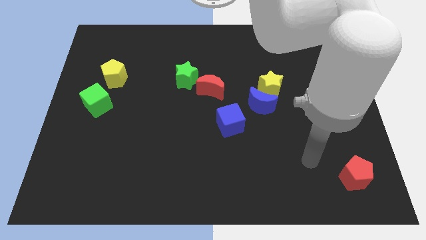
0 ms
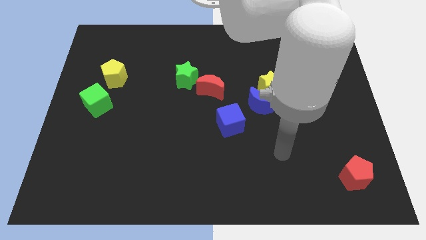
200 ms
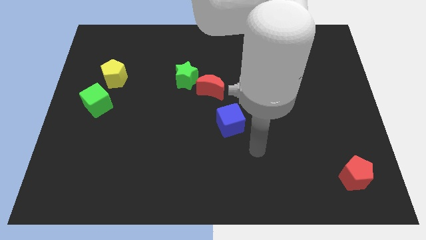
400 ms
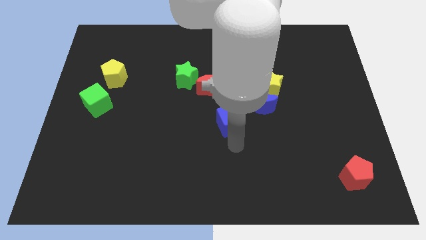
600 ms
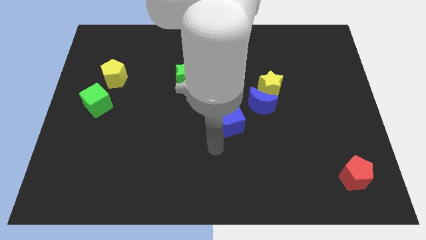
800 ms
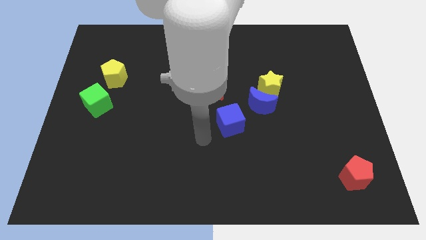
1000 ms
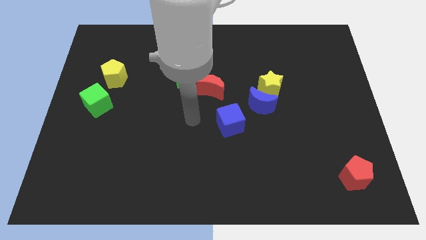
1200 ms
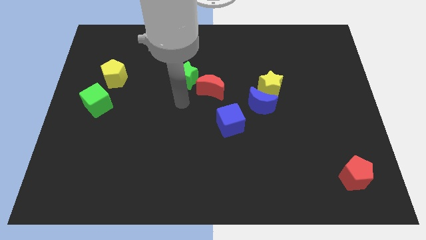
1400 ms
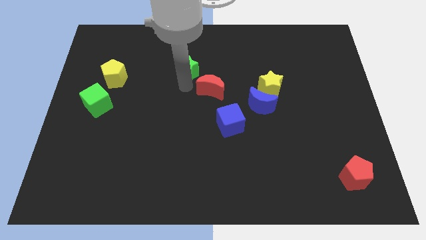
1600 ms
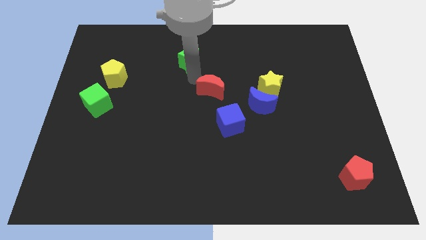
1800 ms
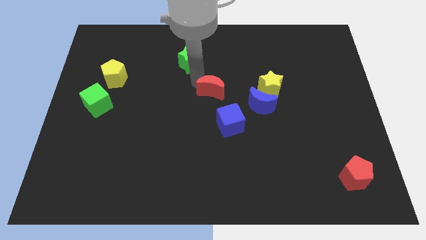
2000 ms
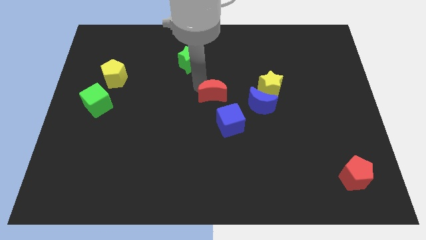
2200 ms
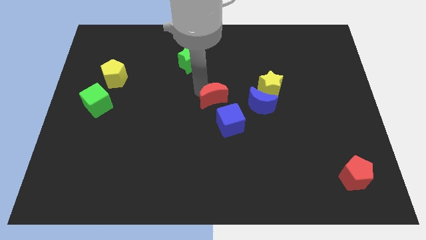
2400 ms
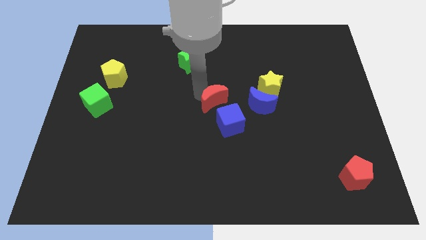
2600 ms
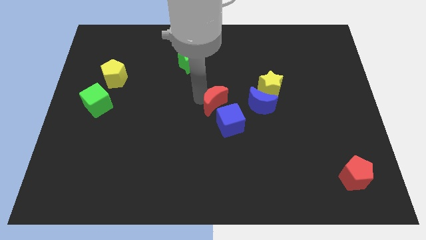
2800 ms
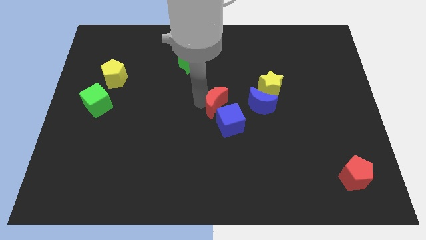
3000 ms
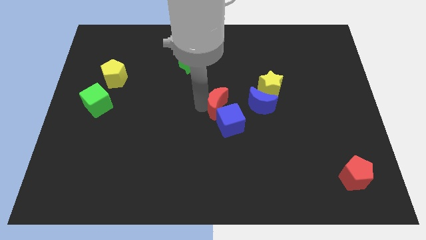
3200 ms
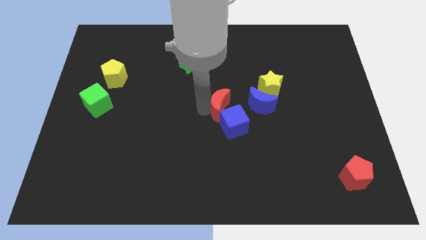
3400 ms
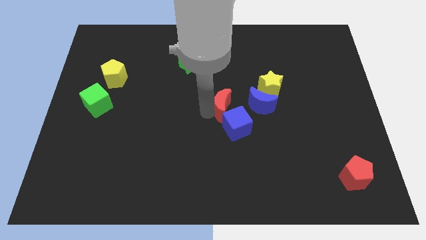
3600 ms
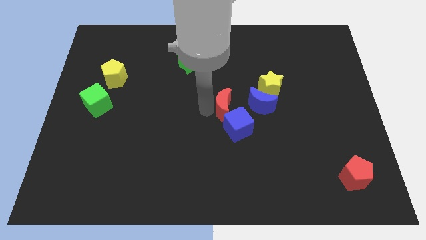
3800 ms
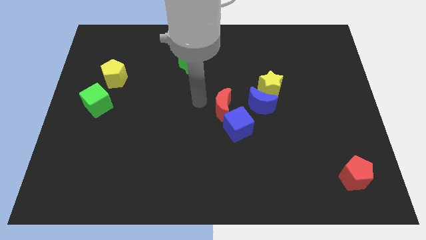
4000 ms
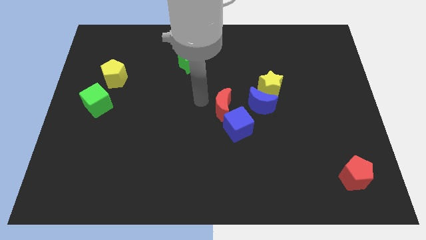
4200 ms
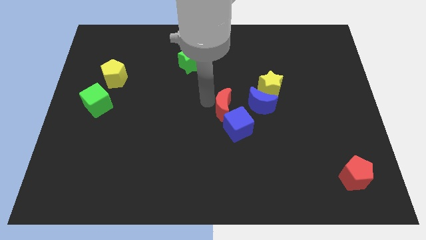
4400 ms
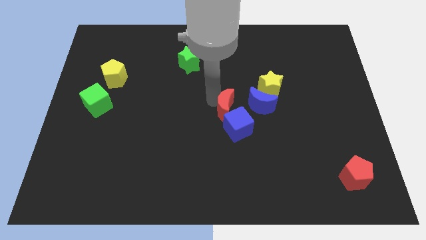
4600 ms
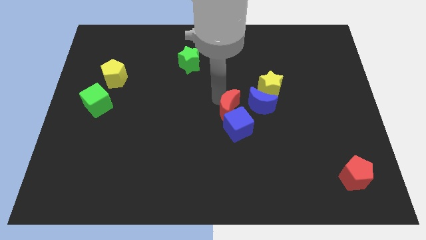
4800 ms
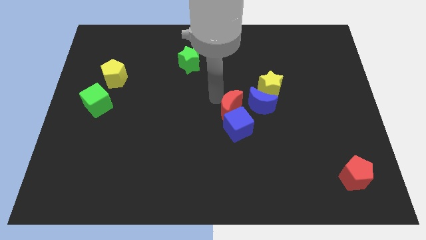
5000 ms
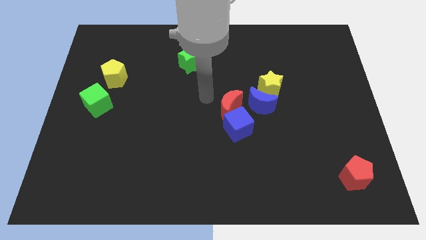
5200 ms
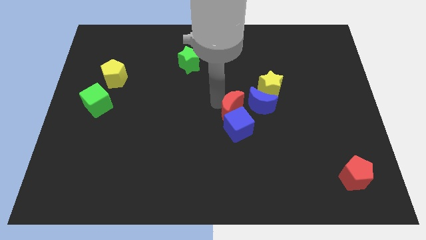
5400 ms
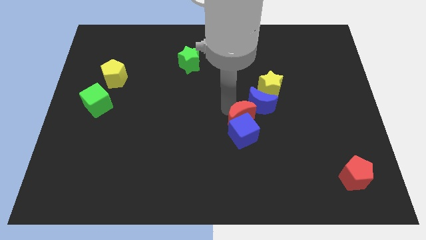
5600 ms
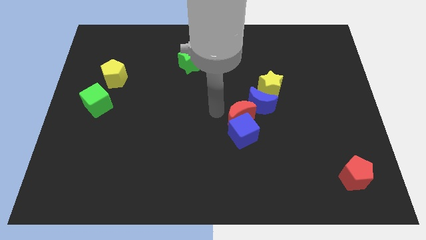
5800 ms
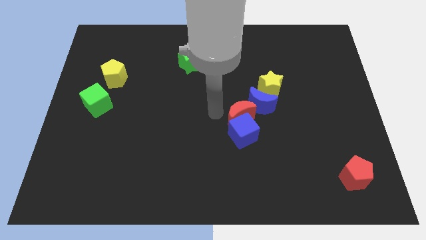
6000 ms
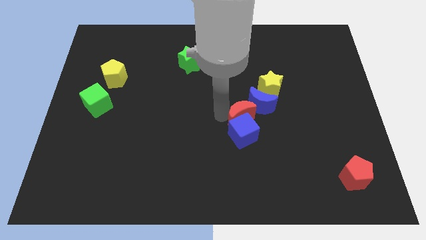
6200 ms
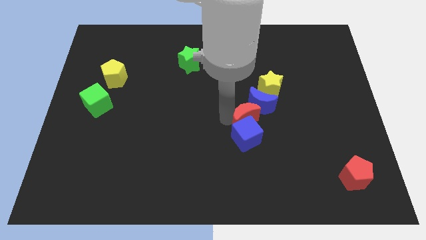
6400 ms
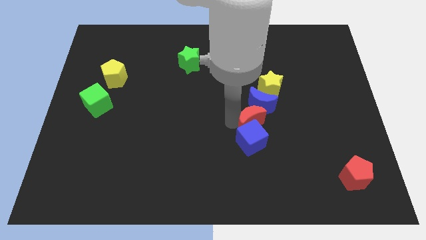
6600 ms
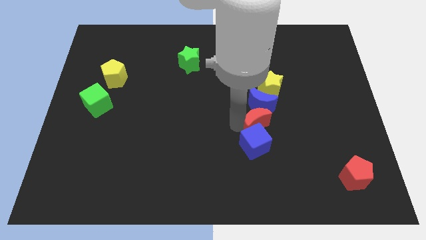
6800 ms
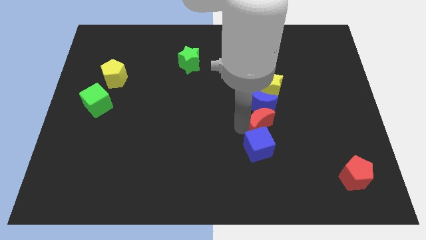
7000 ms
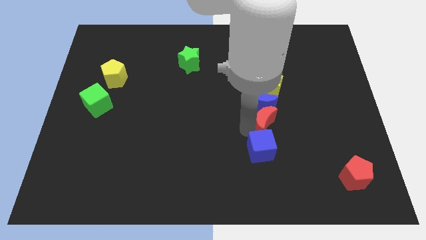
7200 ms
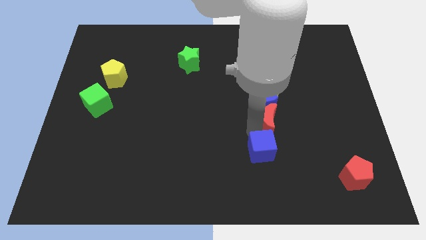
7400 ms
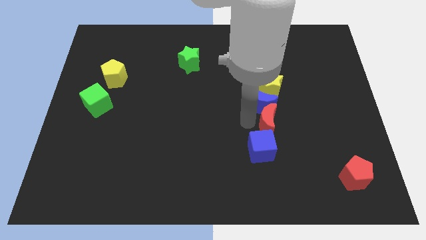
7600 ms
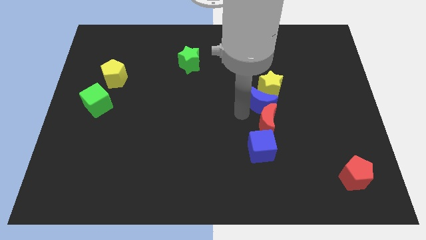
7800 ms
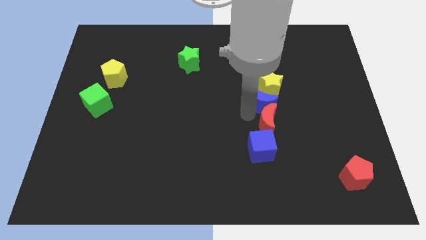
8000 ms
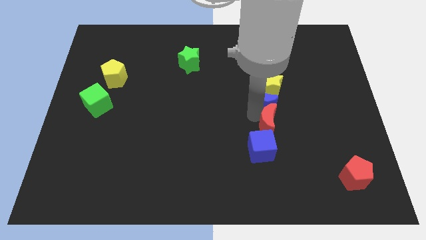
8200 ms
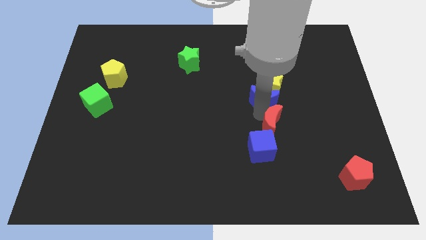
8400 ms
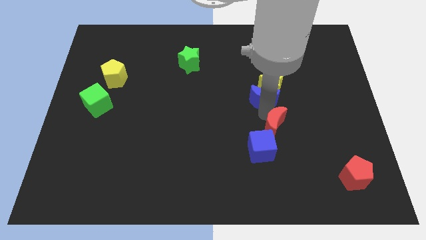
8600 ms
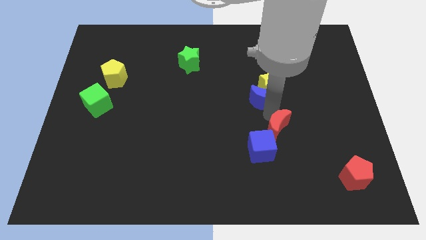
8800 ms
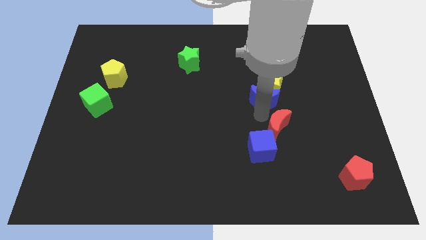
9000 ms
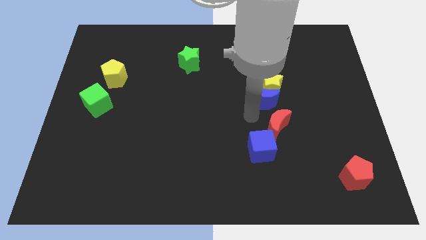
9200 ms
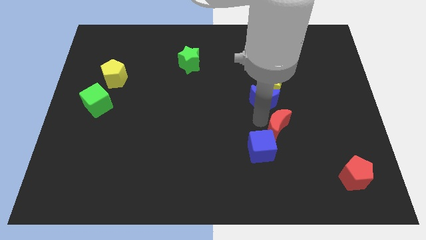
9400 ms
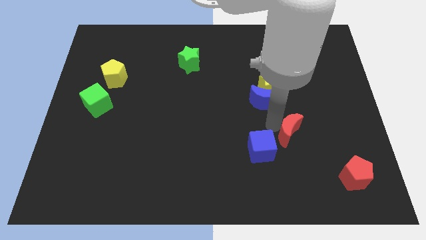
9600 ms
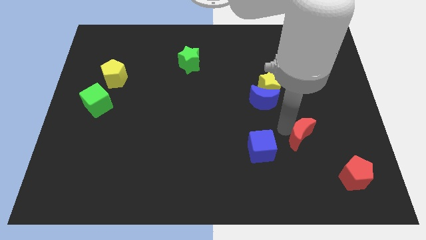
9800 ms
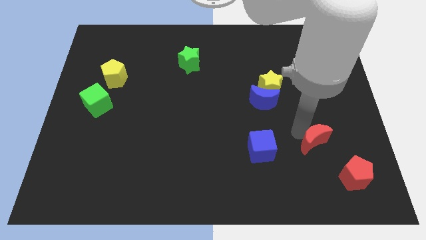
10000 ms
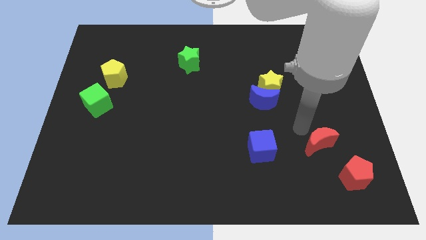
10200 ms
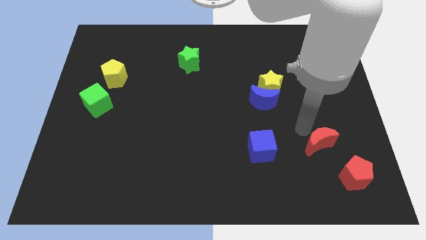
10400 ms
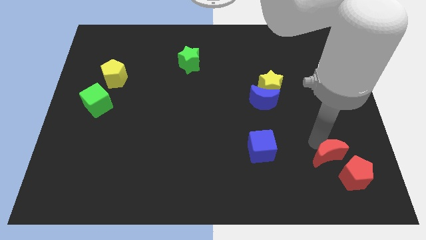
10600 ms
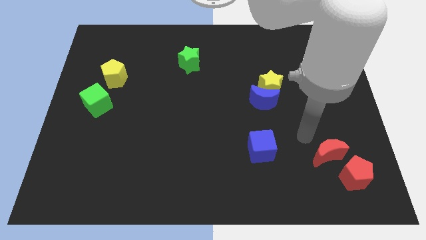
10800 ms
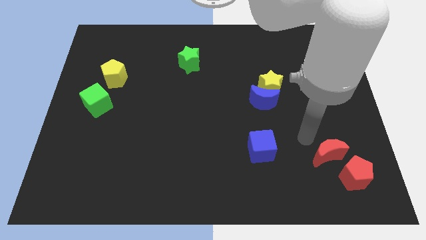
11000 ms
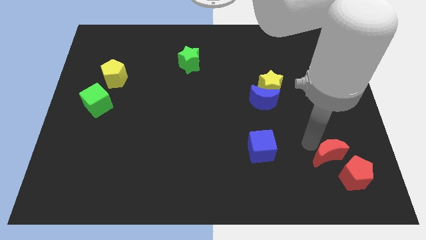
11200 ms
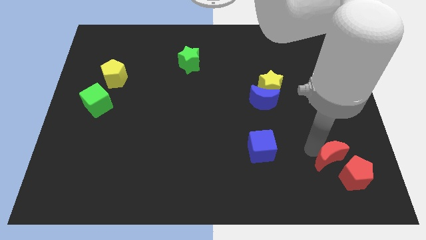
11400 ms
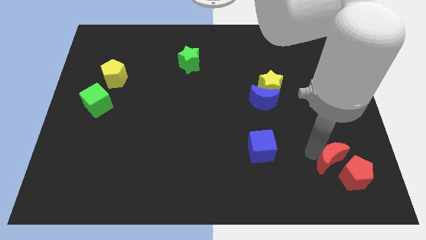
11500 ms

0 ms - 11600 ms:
push the red moon towards the red pentagon
